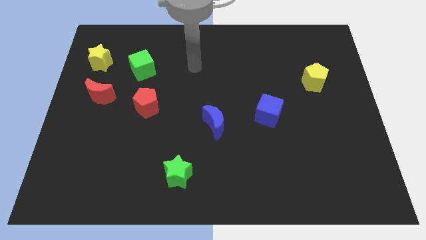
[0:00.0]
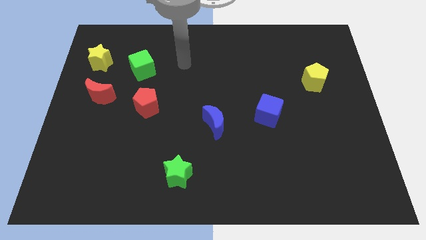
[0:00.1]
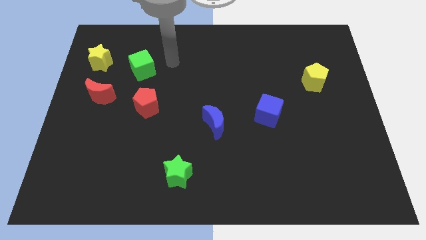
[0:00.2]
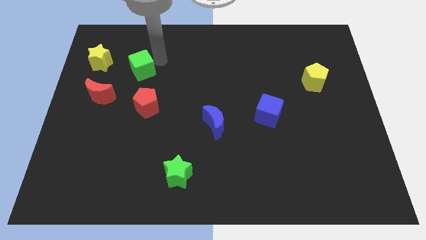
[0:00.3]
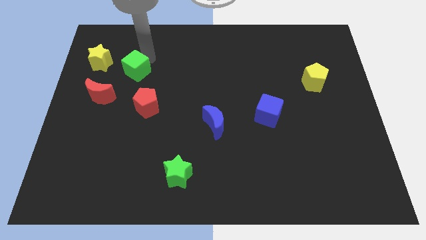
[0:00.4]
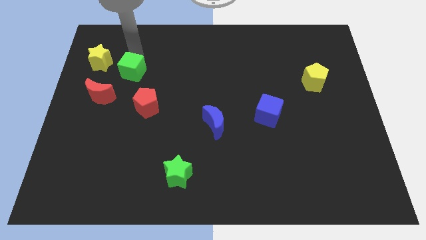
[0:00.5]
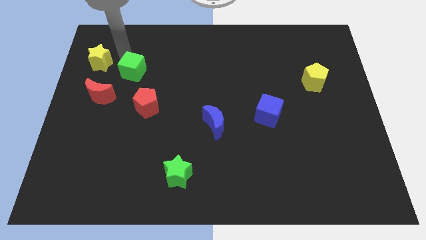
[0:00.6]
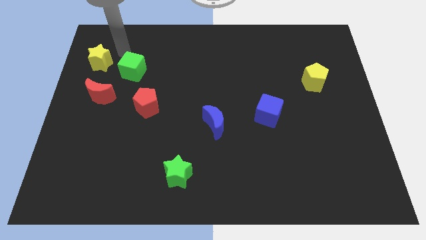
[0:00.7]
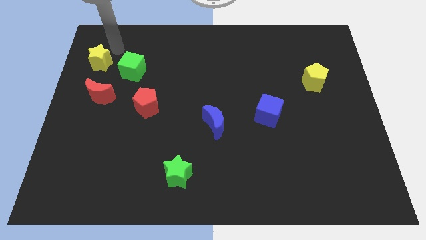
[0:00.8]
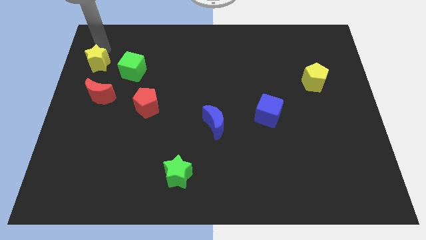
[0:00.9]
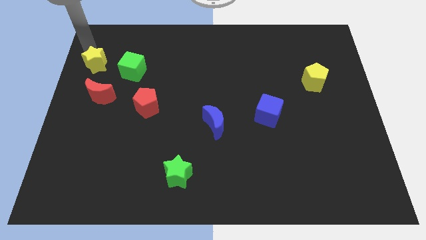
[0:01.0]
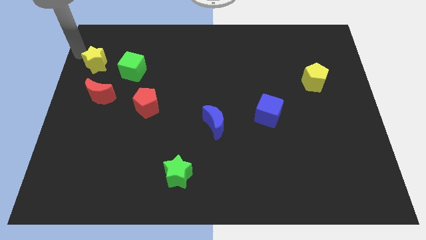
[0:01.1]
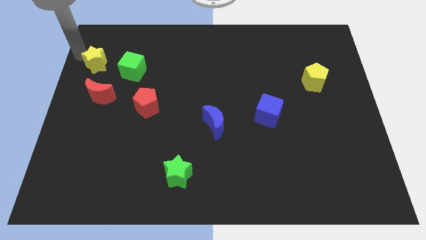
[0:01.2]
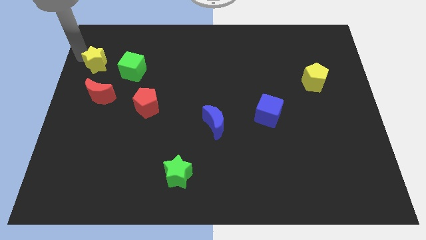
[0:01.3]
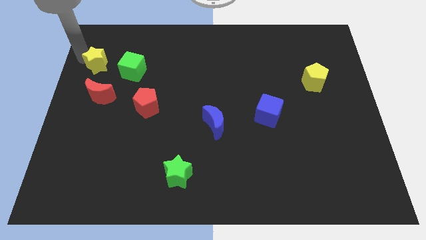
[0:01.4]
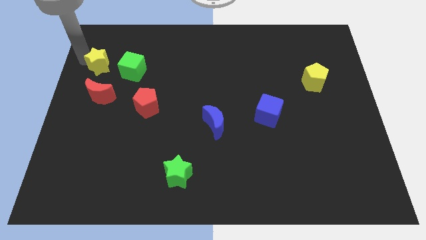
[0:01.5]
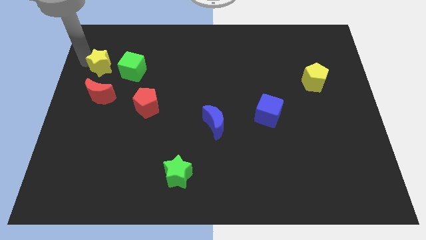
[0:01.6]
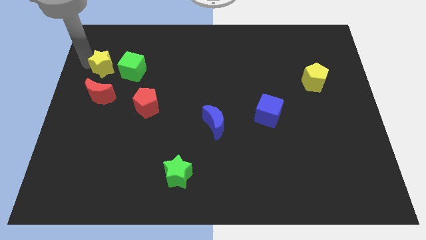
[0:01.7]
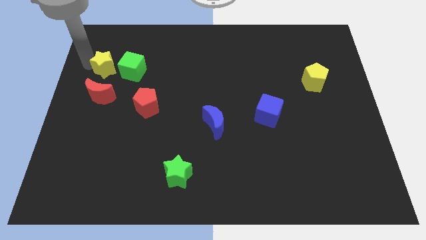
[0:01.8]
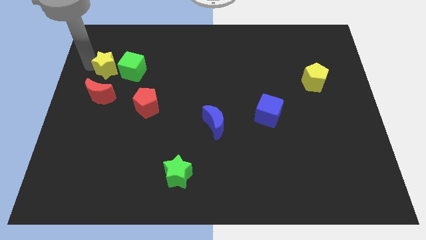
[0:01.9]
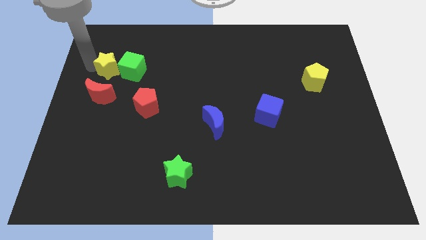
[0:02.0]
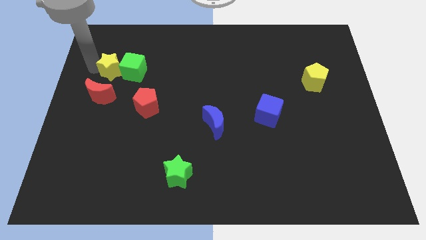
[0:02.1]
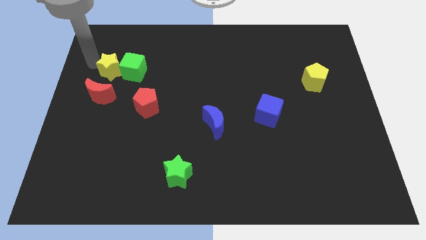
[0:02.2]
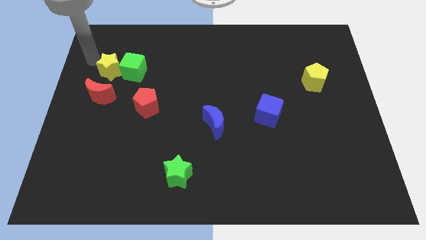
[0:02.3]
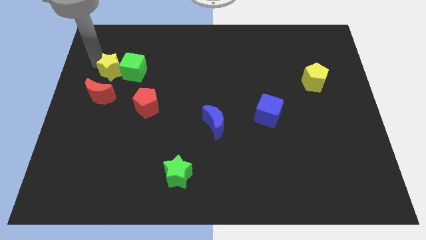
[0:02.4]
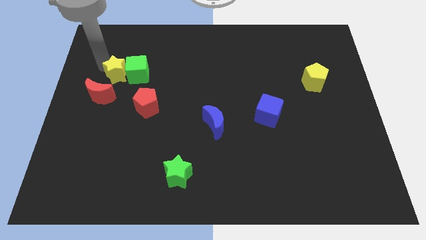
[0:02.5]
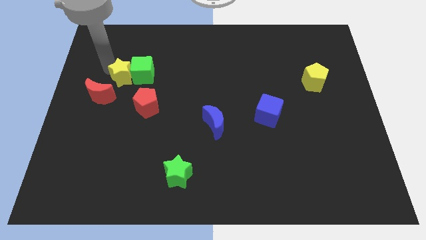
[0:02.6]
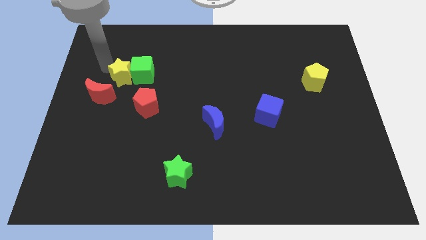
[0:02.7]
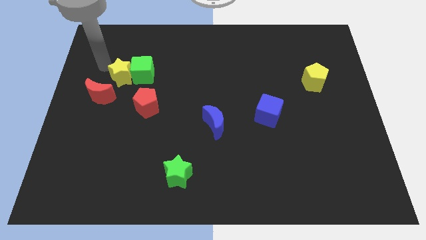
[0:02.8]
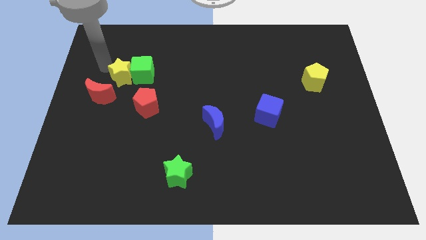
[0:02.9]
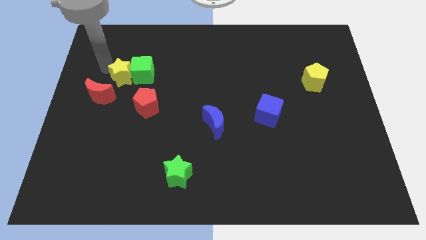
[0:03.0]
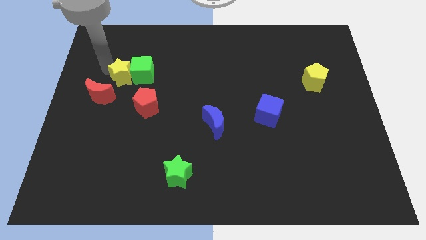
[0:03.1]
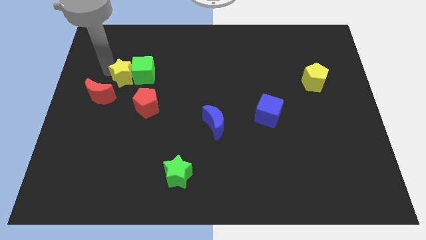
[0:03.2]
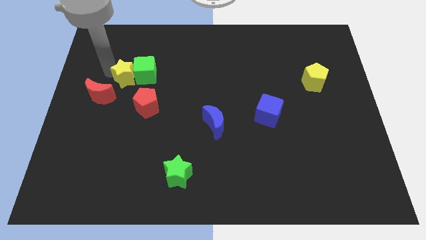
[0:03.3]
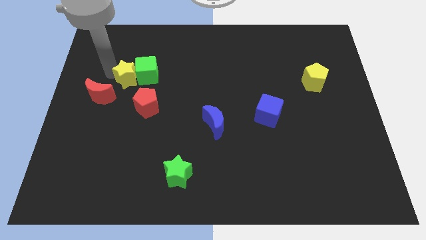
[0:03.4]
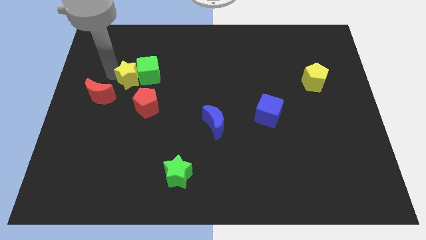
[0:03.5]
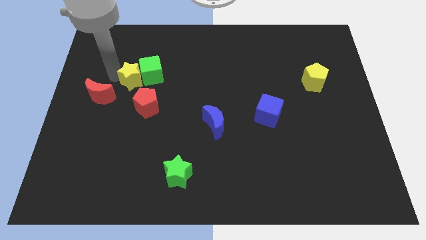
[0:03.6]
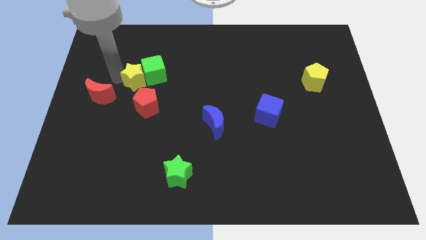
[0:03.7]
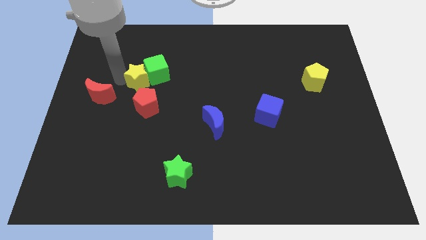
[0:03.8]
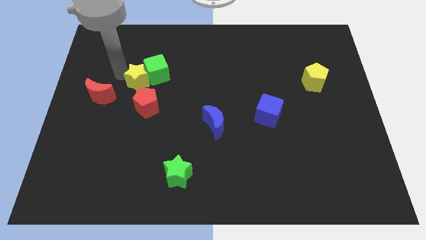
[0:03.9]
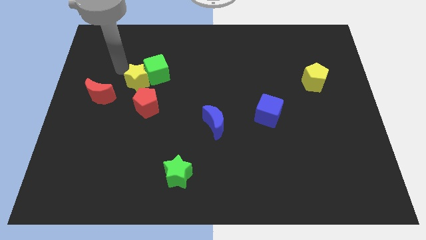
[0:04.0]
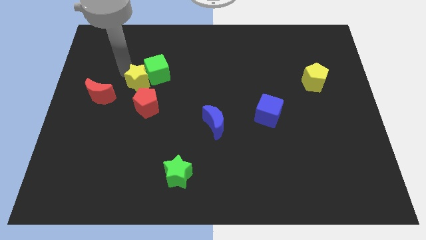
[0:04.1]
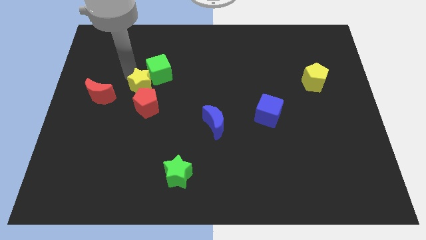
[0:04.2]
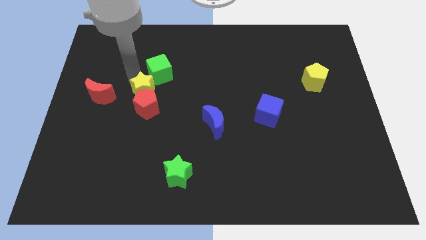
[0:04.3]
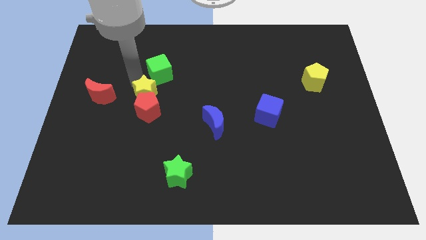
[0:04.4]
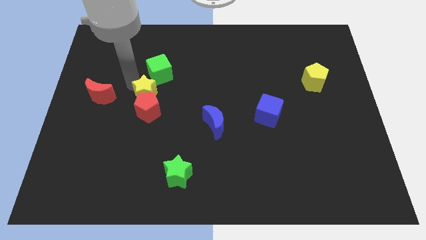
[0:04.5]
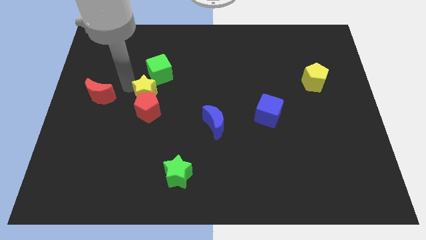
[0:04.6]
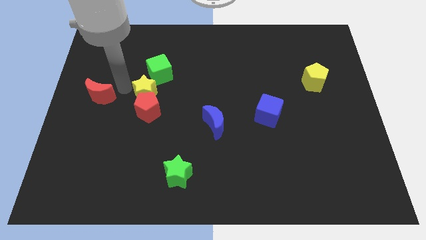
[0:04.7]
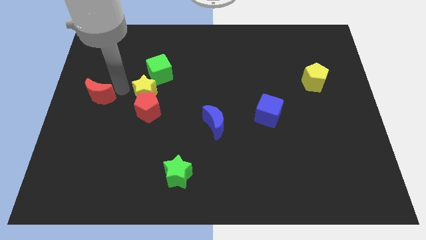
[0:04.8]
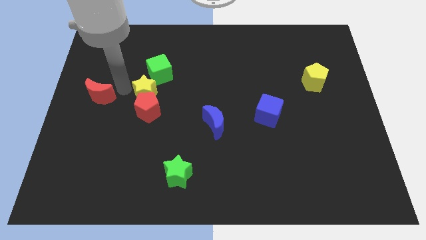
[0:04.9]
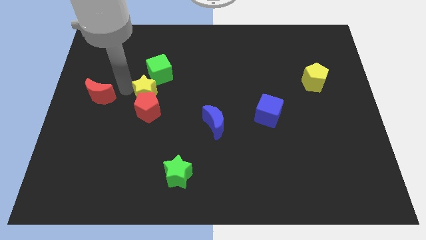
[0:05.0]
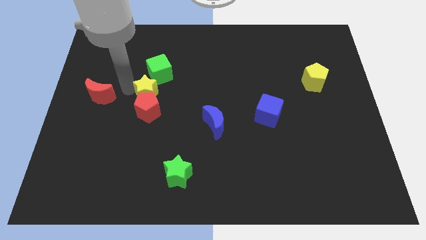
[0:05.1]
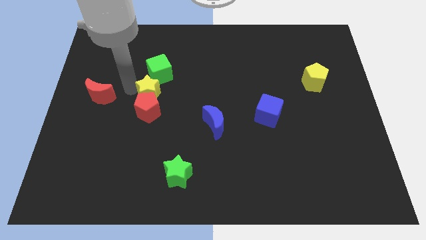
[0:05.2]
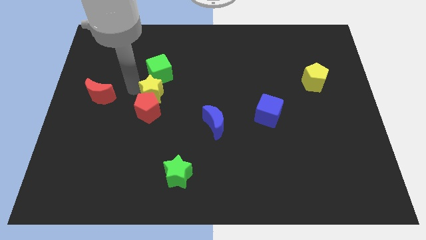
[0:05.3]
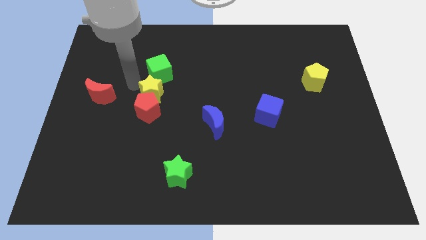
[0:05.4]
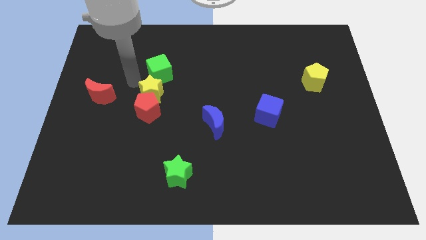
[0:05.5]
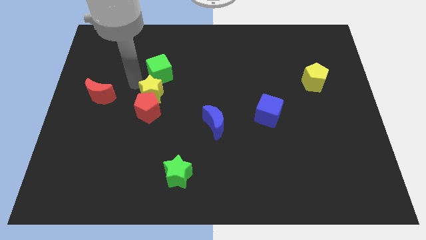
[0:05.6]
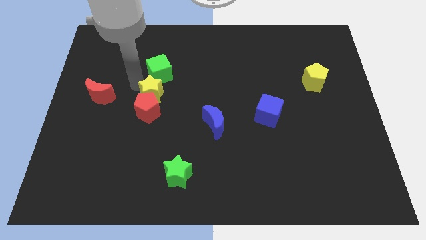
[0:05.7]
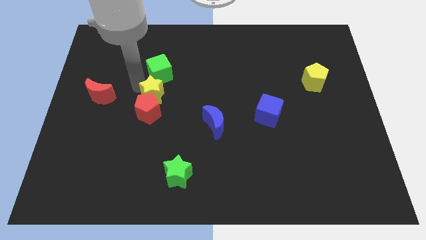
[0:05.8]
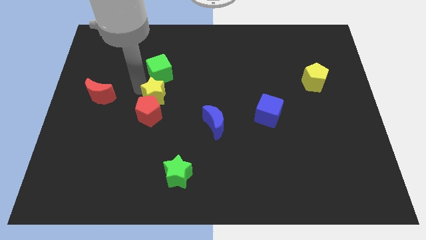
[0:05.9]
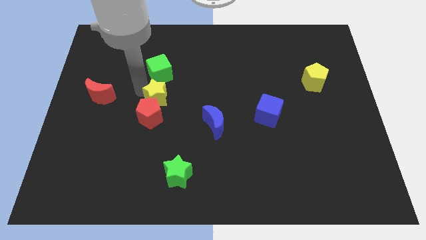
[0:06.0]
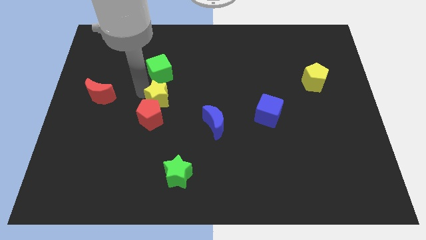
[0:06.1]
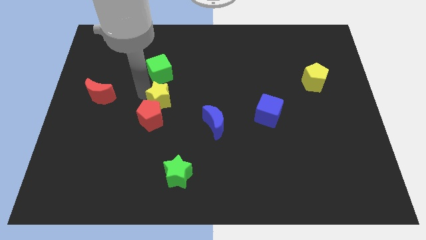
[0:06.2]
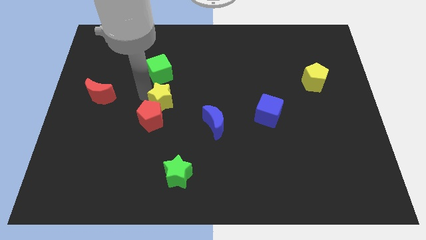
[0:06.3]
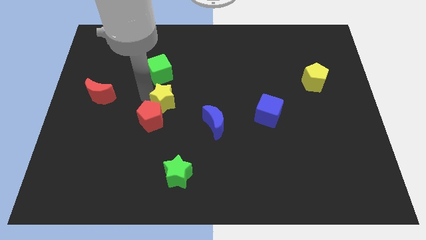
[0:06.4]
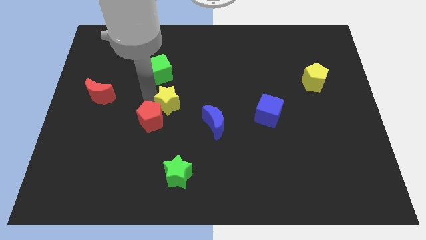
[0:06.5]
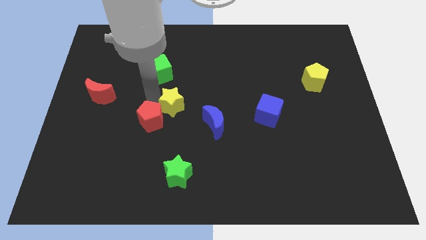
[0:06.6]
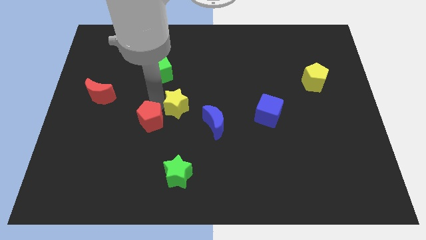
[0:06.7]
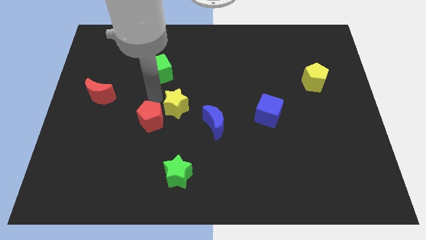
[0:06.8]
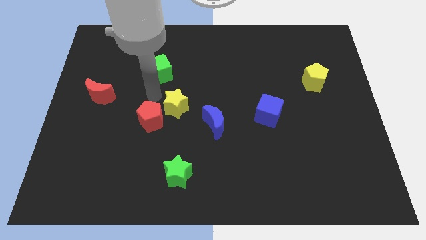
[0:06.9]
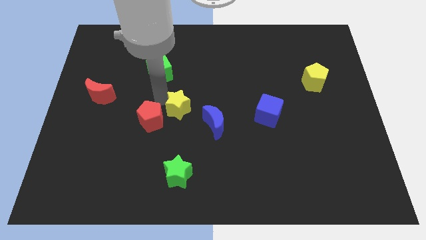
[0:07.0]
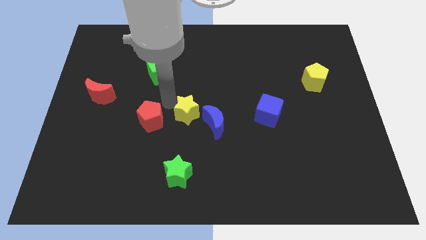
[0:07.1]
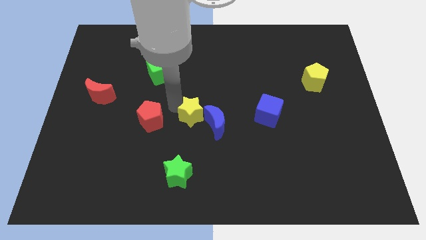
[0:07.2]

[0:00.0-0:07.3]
push the yellow star towards the blue moon
